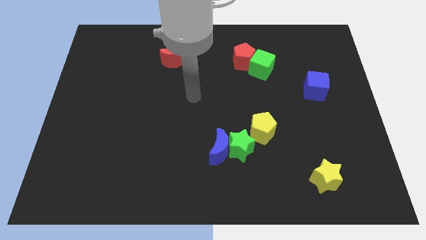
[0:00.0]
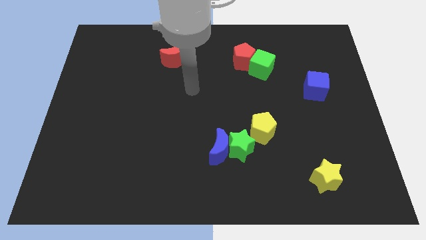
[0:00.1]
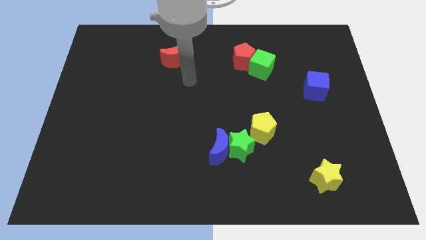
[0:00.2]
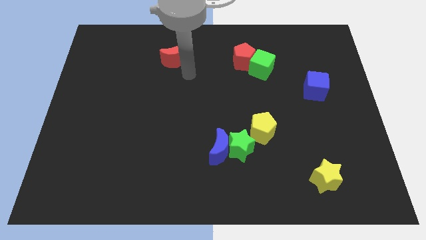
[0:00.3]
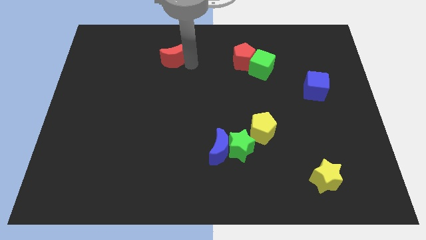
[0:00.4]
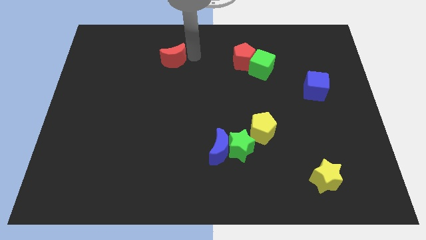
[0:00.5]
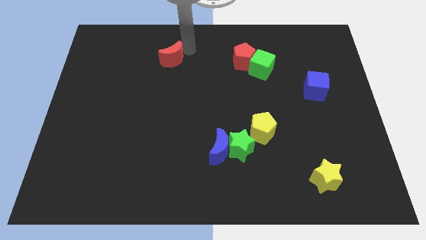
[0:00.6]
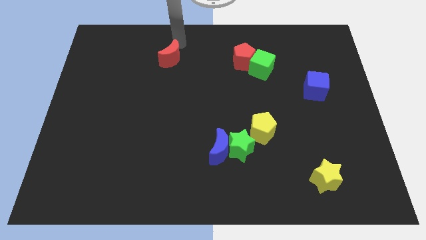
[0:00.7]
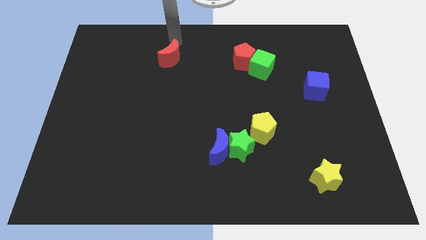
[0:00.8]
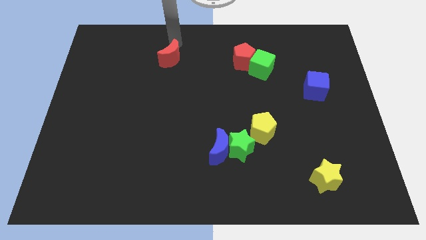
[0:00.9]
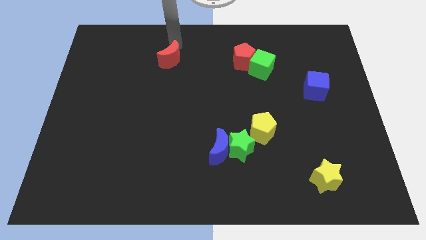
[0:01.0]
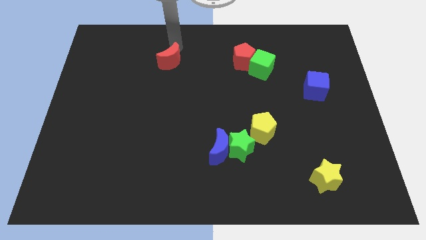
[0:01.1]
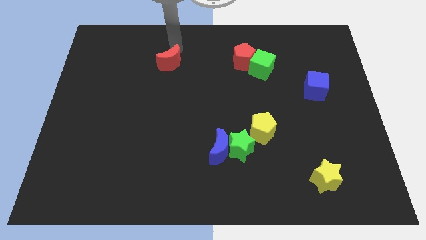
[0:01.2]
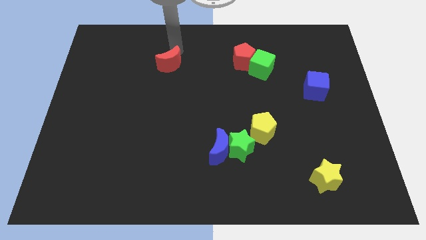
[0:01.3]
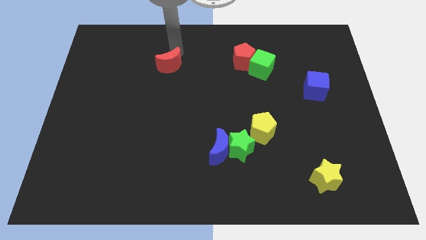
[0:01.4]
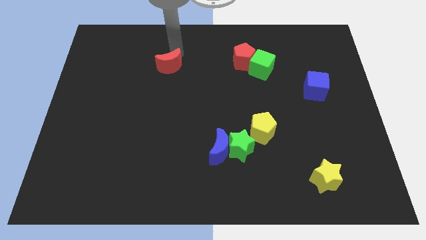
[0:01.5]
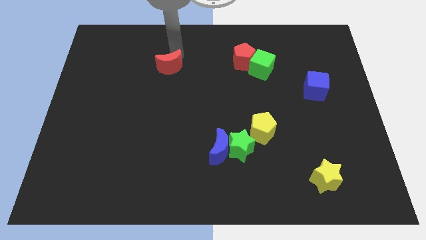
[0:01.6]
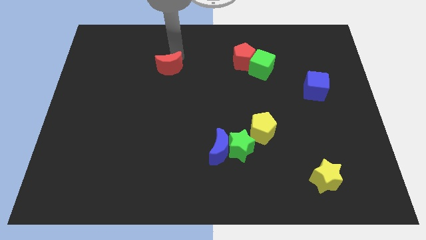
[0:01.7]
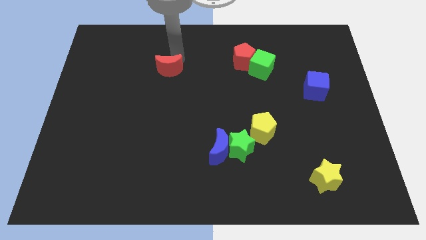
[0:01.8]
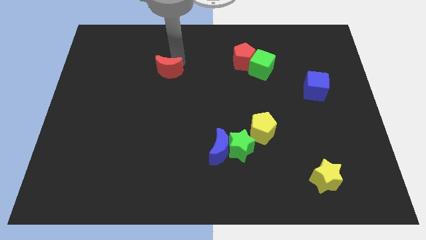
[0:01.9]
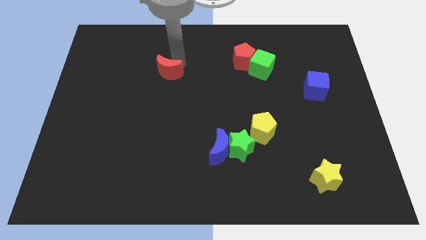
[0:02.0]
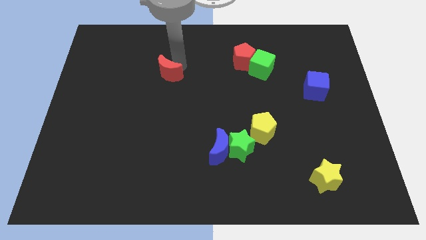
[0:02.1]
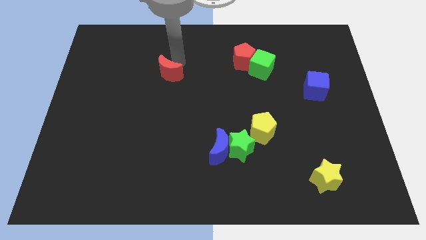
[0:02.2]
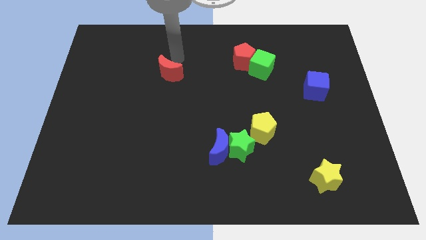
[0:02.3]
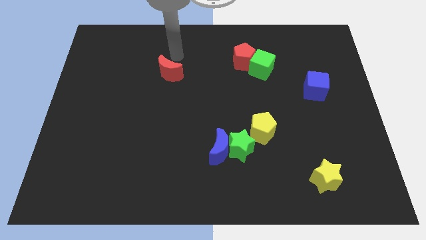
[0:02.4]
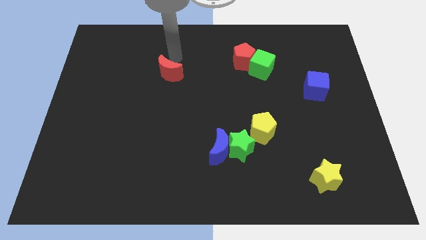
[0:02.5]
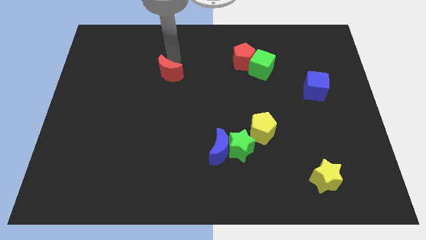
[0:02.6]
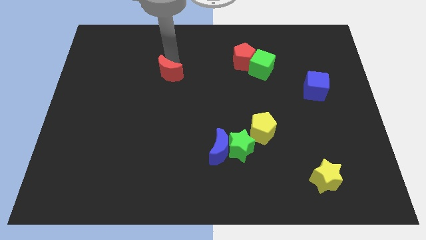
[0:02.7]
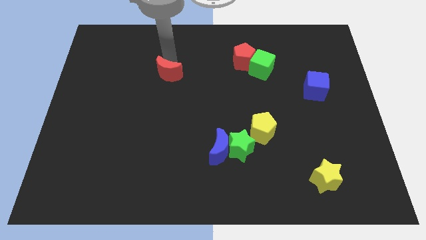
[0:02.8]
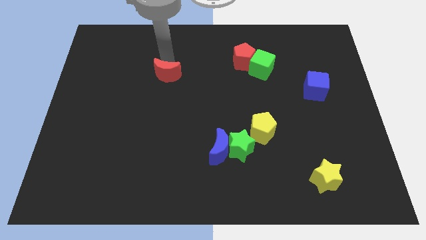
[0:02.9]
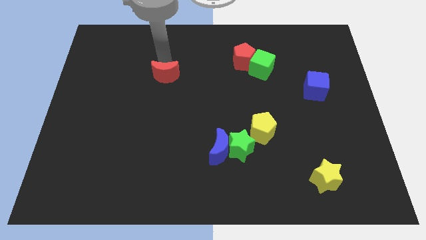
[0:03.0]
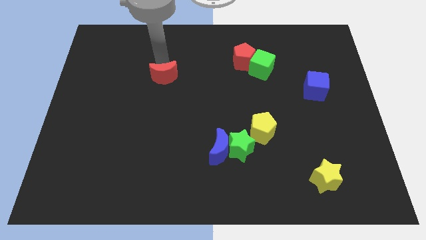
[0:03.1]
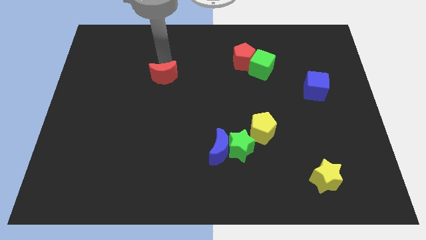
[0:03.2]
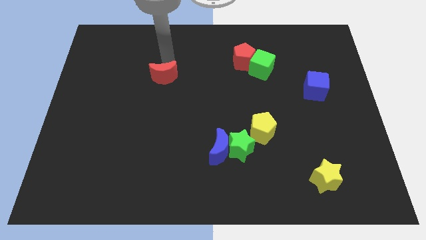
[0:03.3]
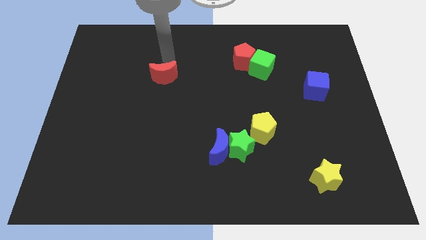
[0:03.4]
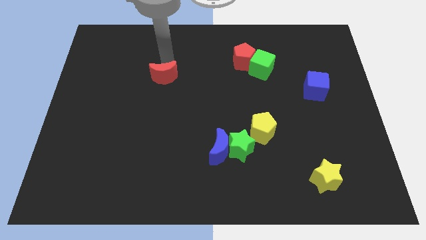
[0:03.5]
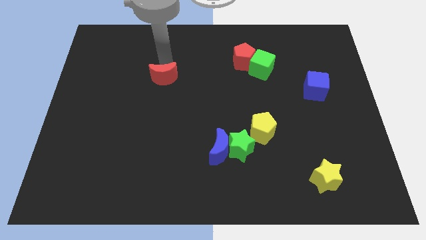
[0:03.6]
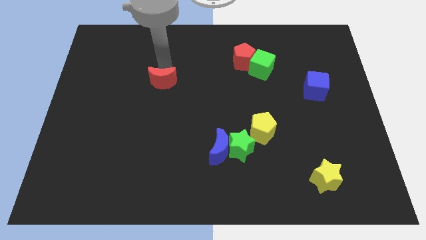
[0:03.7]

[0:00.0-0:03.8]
push the red moon down a little

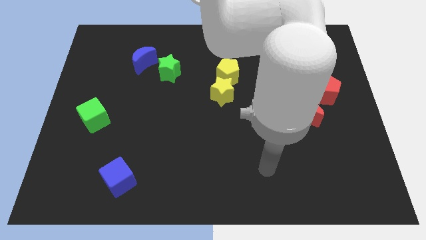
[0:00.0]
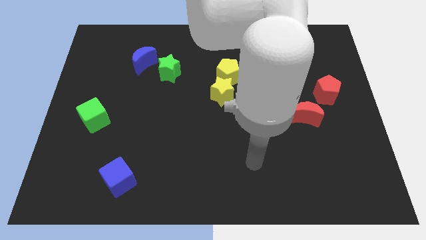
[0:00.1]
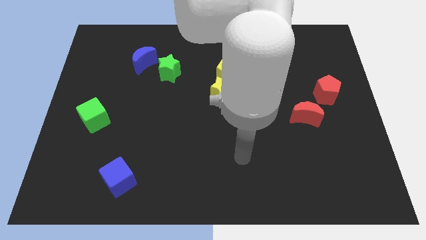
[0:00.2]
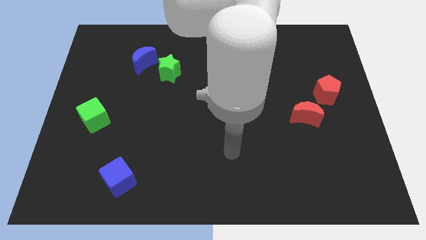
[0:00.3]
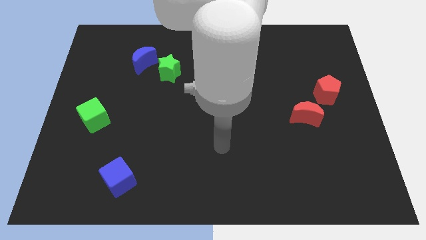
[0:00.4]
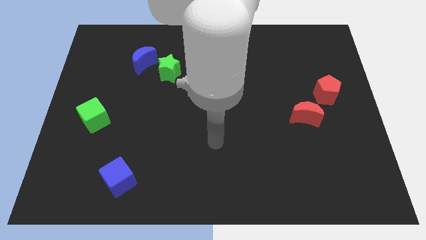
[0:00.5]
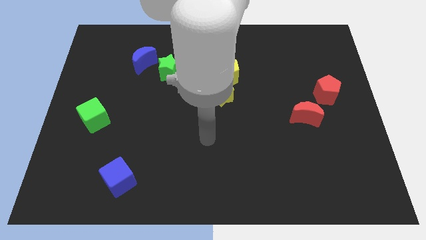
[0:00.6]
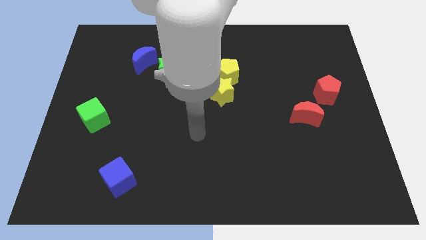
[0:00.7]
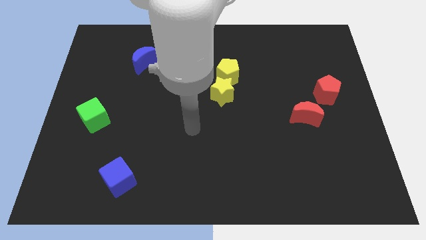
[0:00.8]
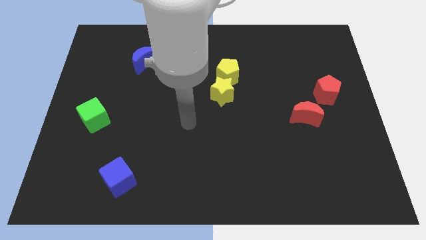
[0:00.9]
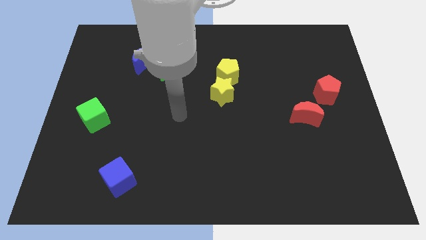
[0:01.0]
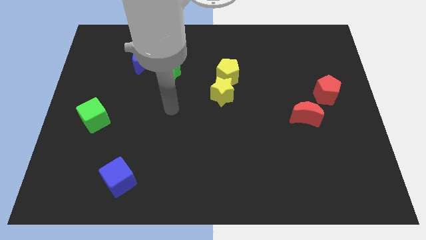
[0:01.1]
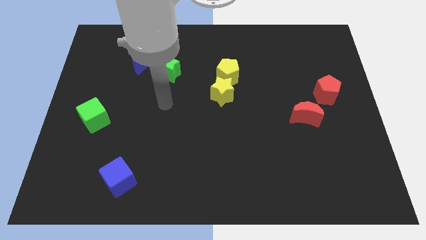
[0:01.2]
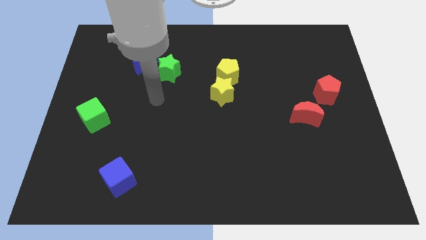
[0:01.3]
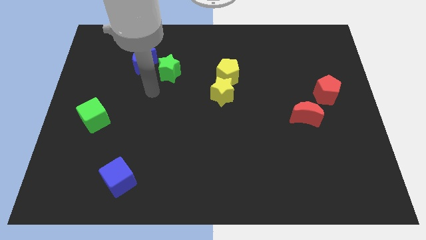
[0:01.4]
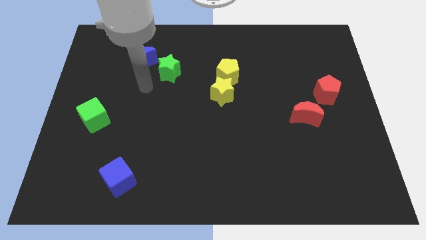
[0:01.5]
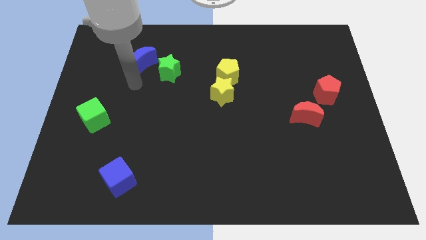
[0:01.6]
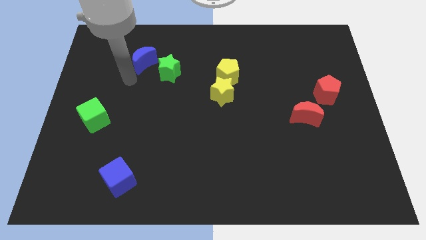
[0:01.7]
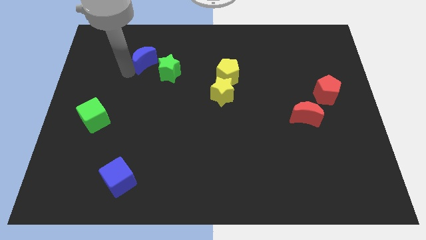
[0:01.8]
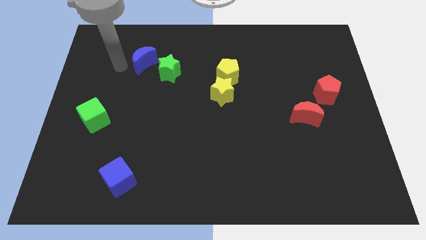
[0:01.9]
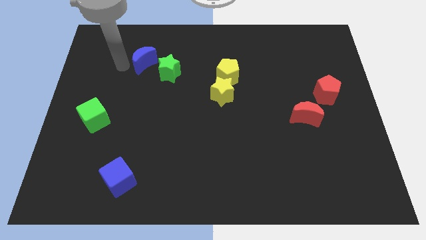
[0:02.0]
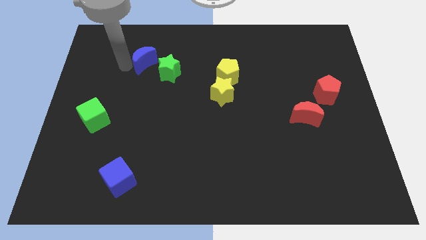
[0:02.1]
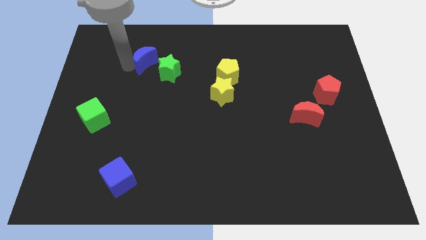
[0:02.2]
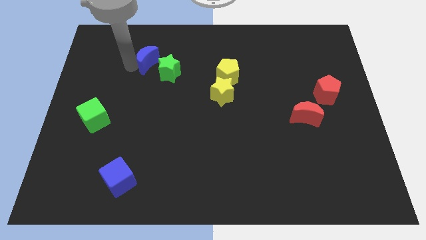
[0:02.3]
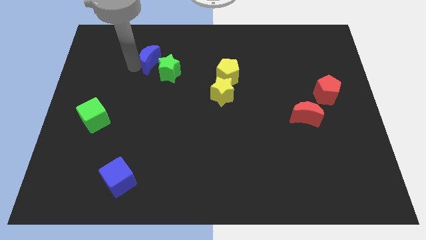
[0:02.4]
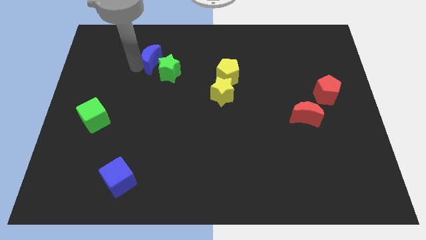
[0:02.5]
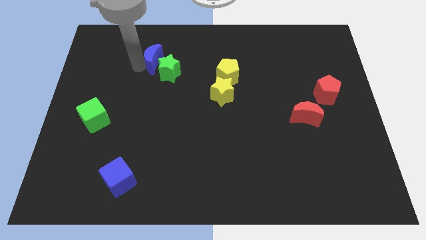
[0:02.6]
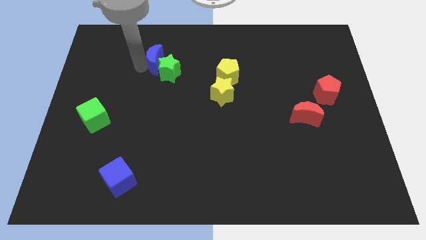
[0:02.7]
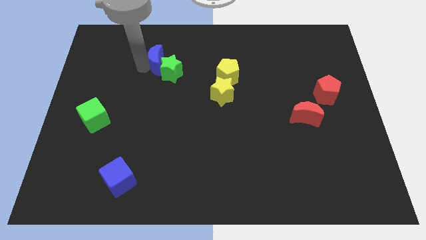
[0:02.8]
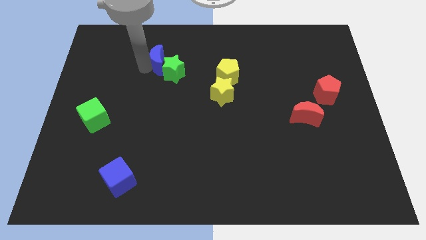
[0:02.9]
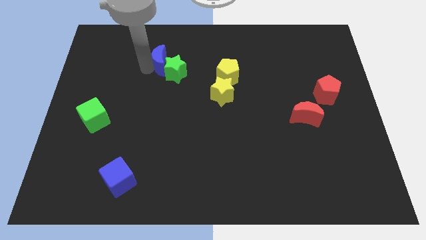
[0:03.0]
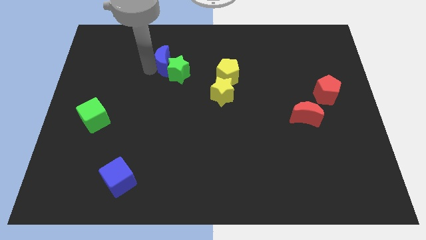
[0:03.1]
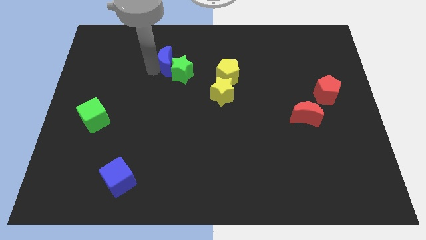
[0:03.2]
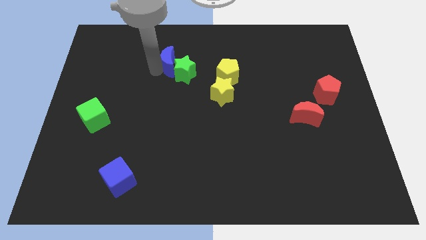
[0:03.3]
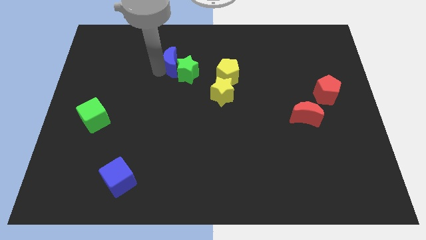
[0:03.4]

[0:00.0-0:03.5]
slightly push the blue moon to the right

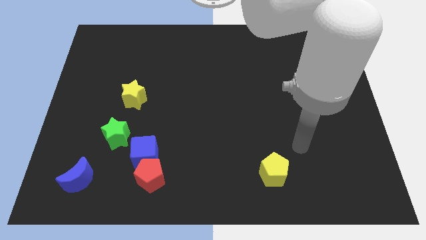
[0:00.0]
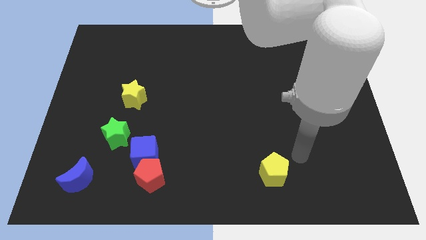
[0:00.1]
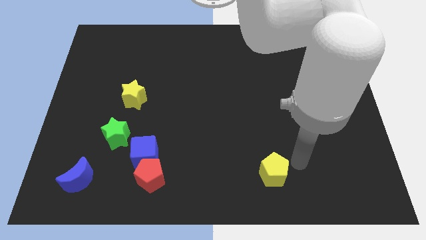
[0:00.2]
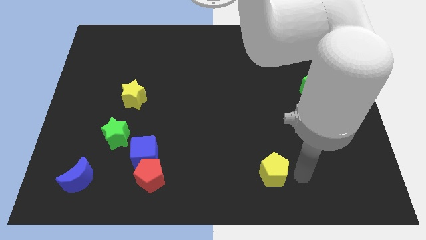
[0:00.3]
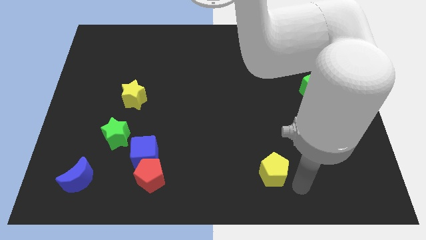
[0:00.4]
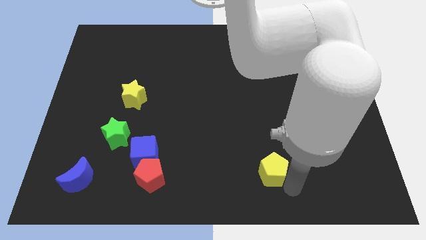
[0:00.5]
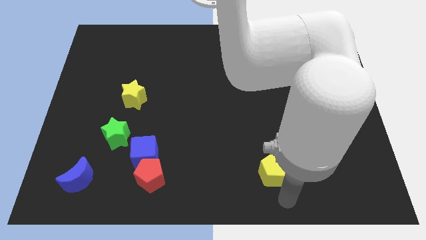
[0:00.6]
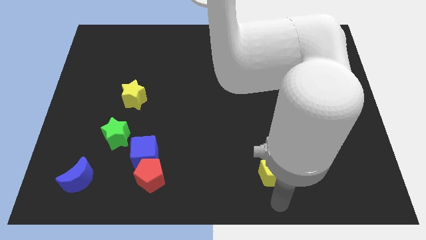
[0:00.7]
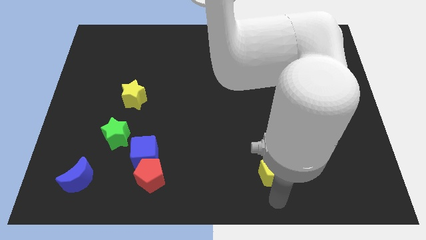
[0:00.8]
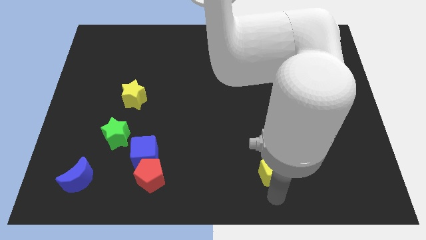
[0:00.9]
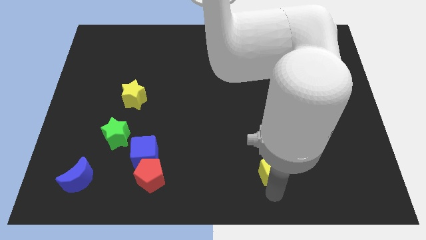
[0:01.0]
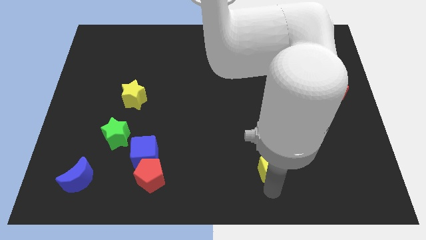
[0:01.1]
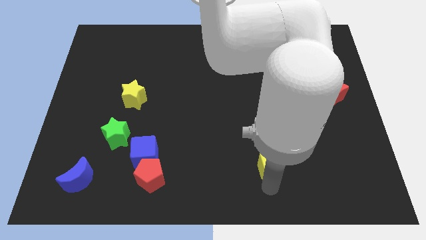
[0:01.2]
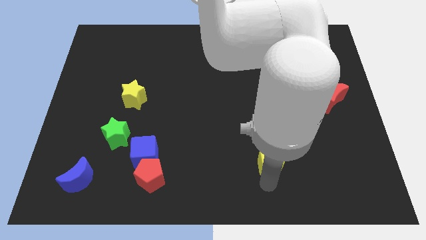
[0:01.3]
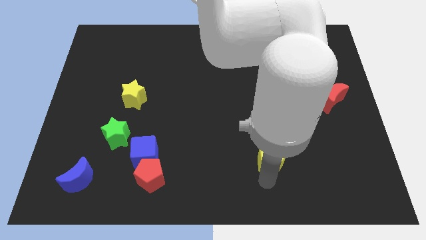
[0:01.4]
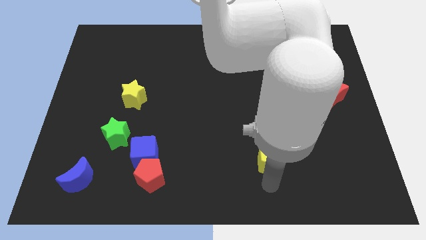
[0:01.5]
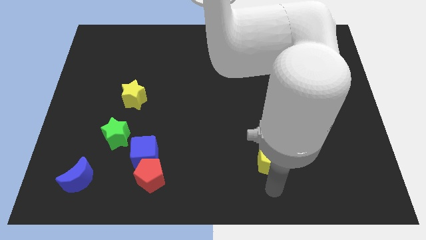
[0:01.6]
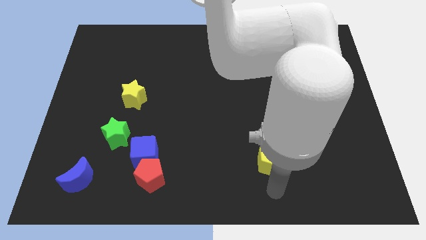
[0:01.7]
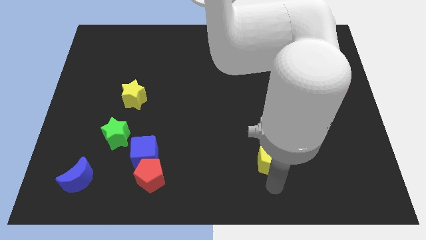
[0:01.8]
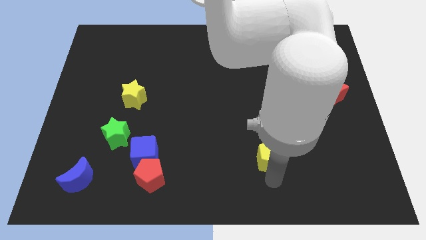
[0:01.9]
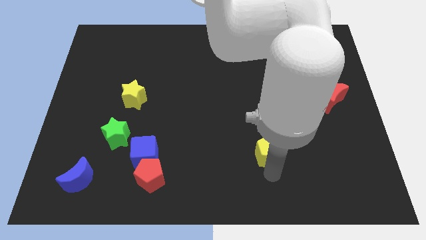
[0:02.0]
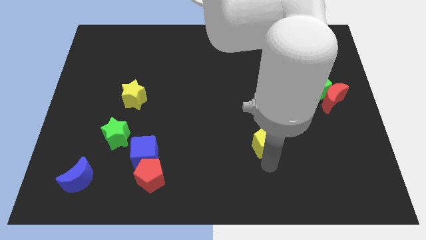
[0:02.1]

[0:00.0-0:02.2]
move the yellow pentagon up slightly
